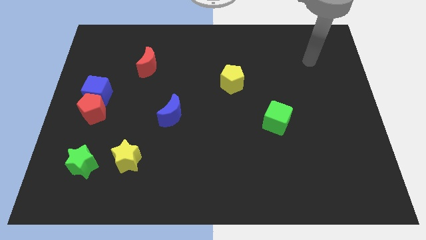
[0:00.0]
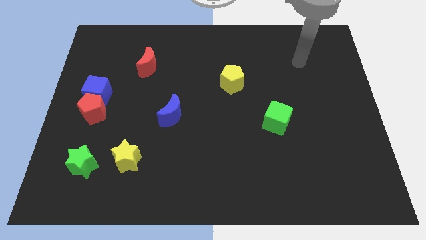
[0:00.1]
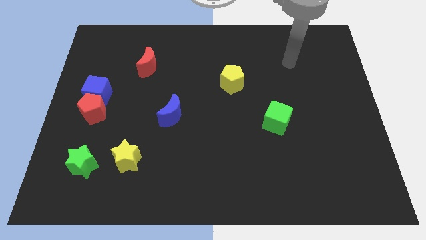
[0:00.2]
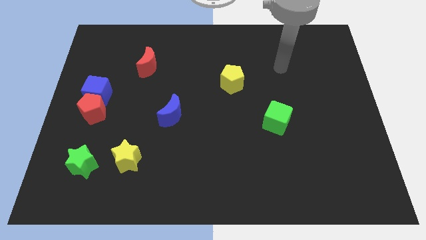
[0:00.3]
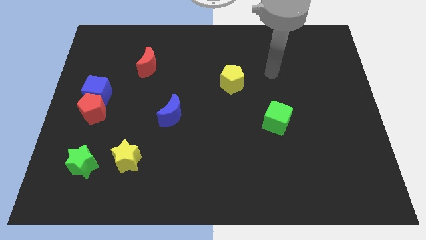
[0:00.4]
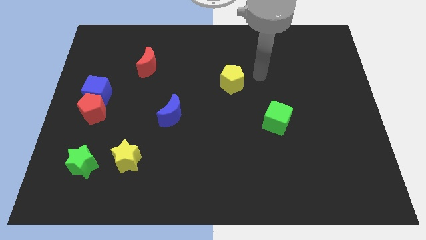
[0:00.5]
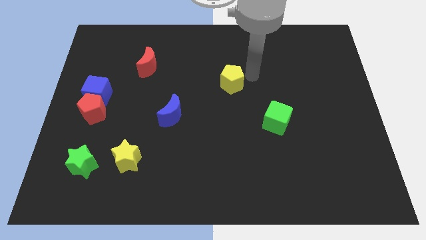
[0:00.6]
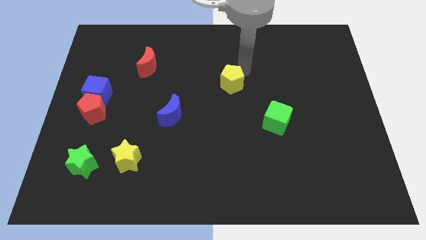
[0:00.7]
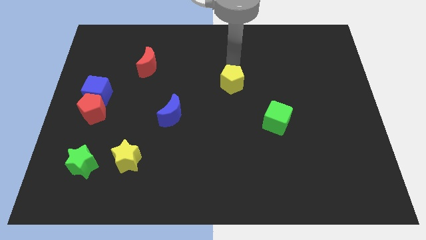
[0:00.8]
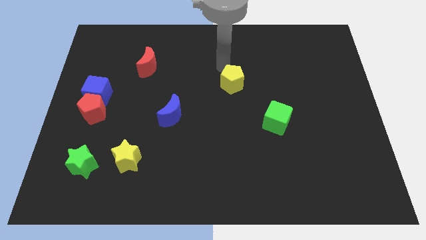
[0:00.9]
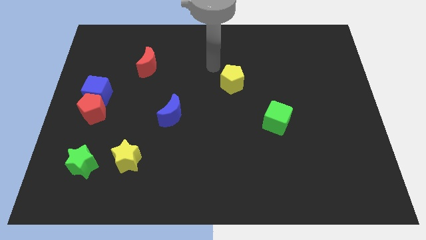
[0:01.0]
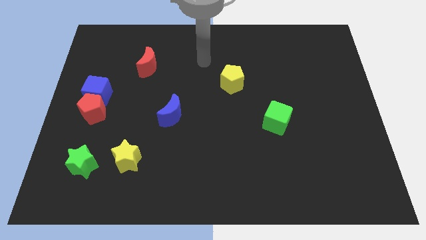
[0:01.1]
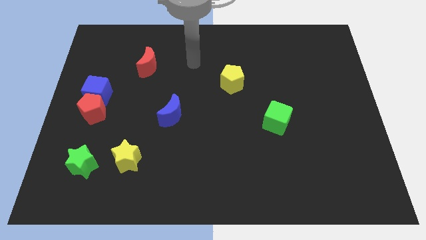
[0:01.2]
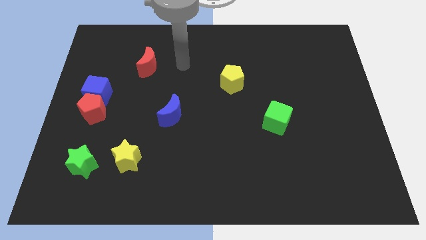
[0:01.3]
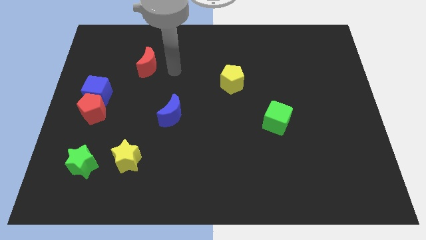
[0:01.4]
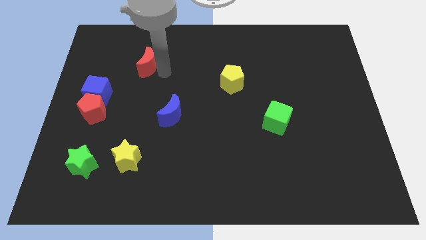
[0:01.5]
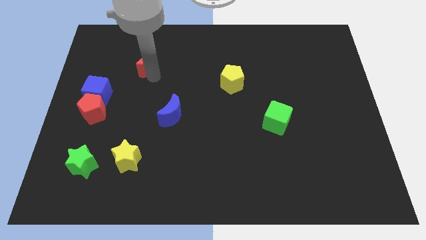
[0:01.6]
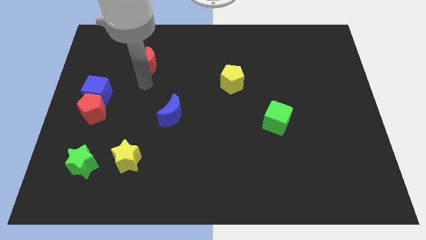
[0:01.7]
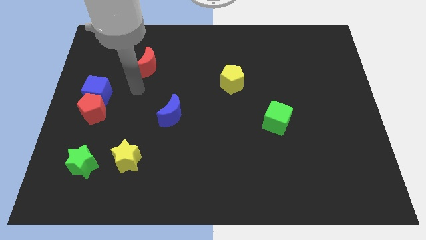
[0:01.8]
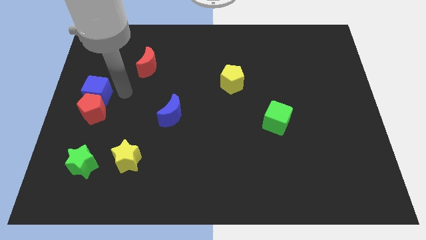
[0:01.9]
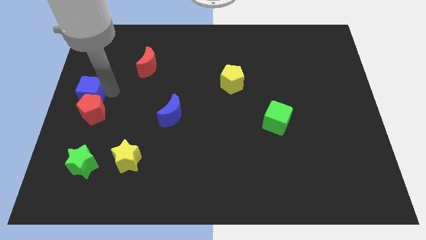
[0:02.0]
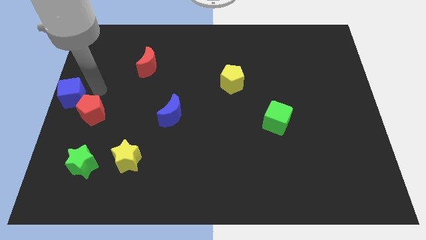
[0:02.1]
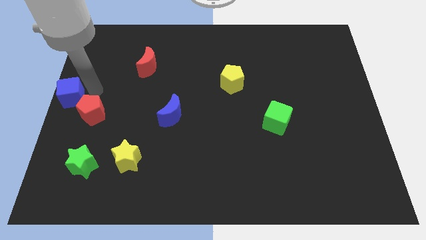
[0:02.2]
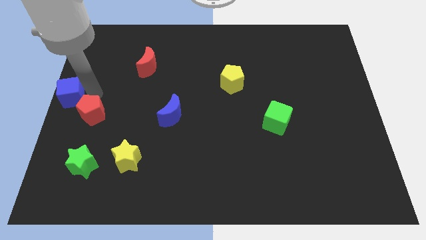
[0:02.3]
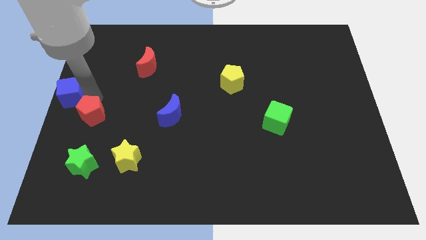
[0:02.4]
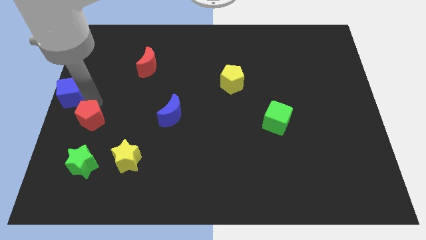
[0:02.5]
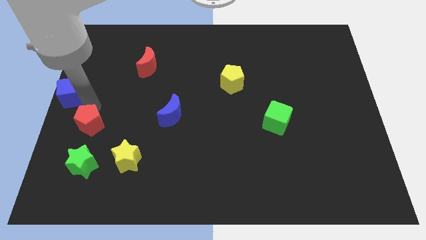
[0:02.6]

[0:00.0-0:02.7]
separate the red pentagon from the blue cube

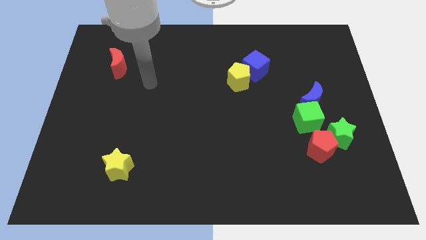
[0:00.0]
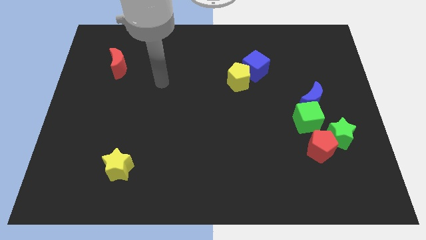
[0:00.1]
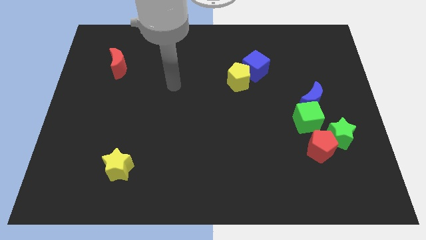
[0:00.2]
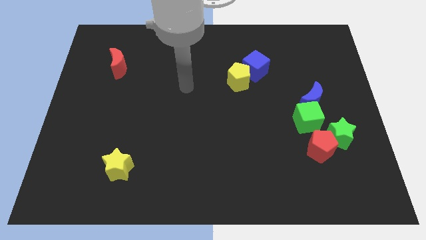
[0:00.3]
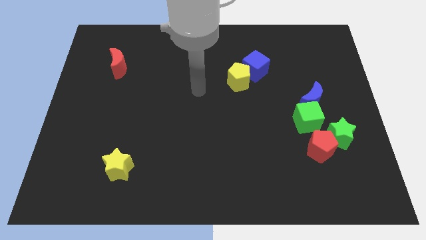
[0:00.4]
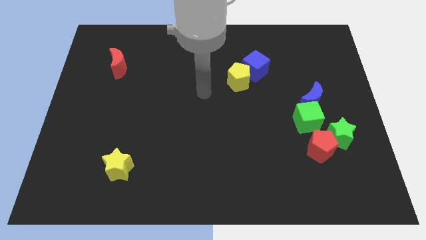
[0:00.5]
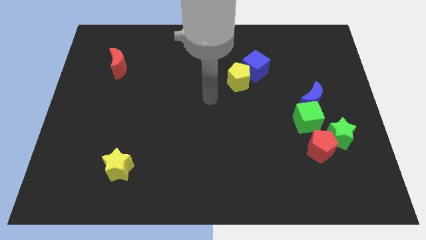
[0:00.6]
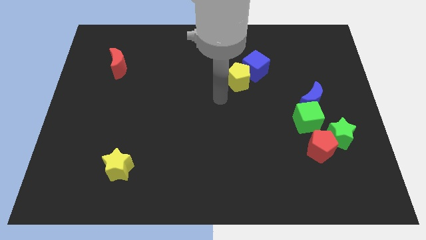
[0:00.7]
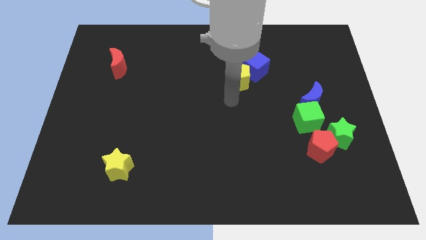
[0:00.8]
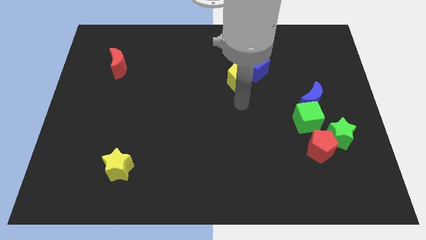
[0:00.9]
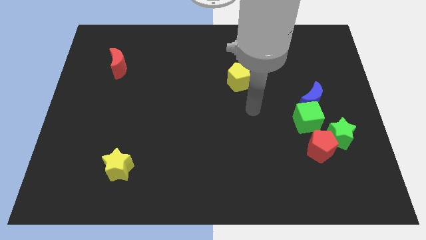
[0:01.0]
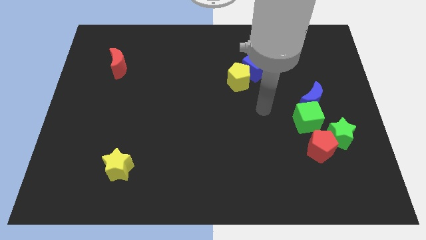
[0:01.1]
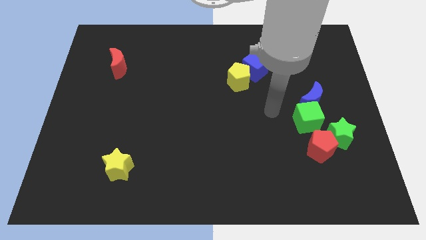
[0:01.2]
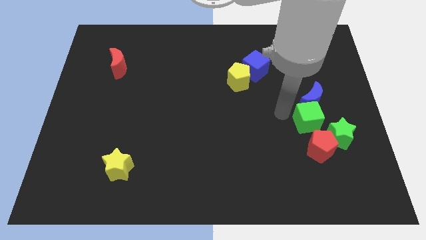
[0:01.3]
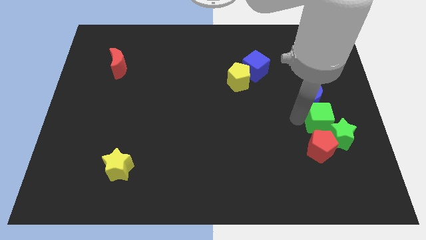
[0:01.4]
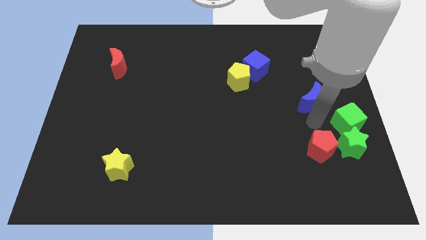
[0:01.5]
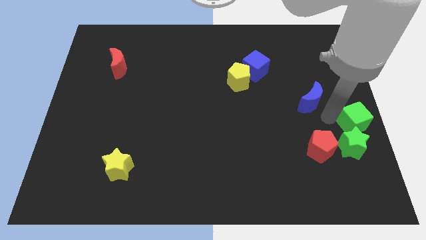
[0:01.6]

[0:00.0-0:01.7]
pull the blue moon apart from the green cube

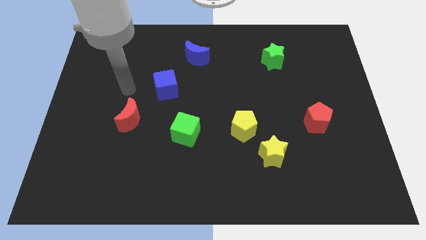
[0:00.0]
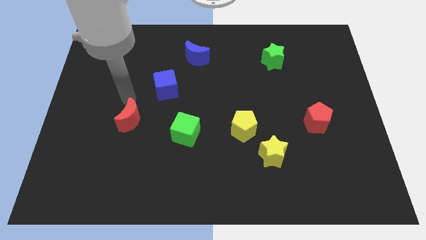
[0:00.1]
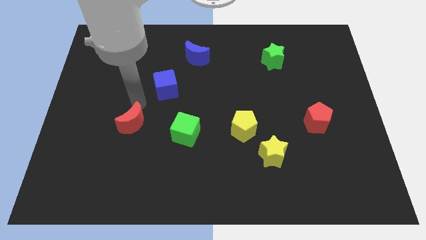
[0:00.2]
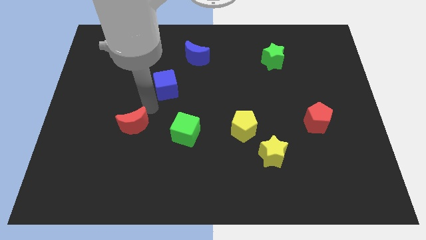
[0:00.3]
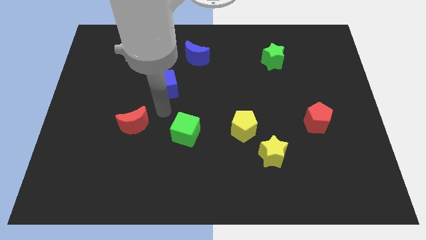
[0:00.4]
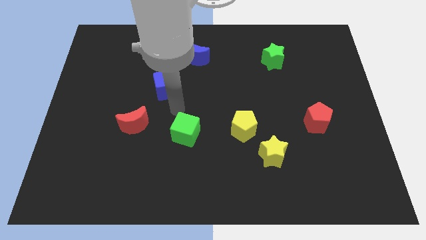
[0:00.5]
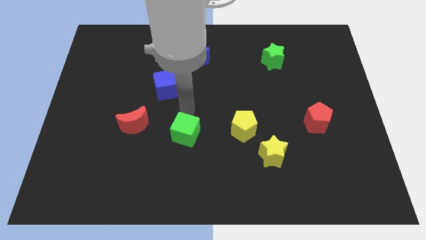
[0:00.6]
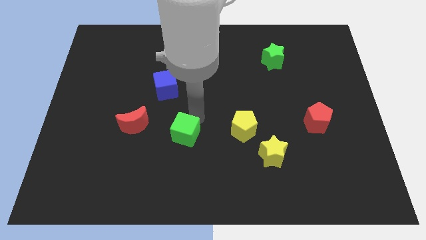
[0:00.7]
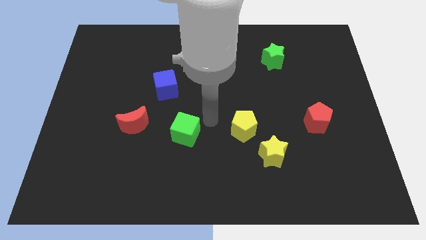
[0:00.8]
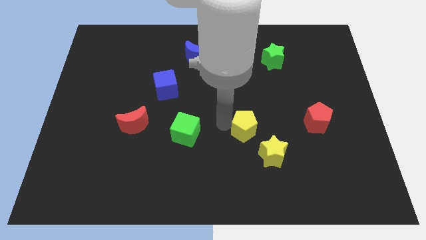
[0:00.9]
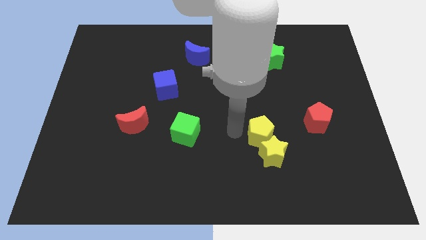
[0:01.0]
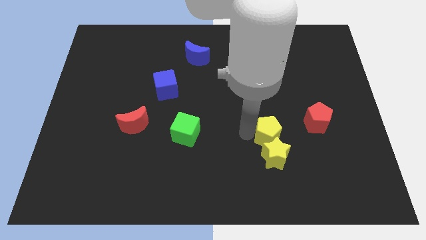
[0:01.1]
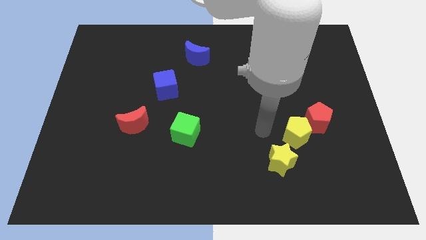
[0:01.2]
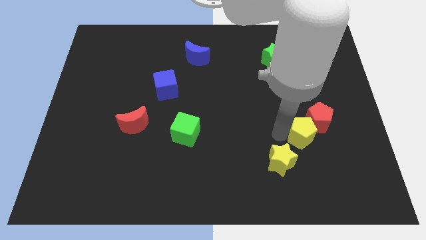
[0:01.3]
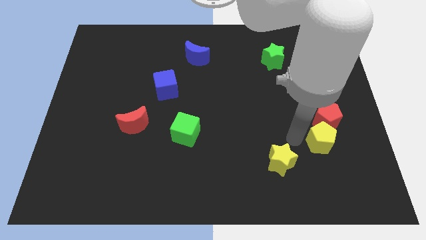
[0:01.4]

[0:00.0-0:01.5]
separate the yellow star from the yellow pentagon

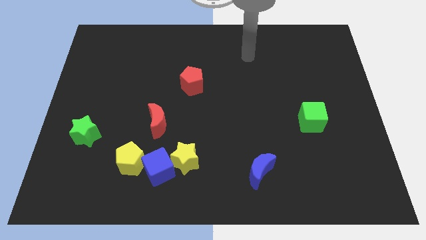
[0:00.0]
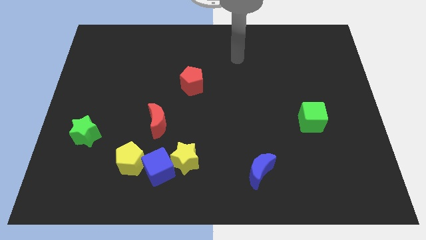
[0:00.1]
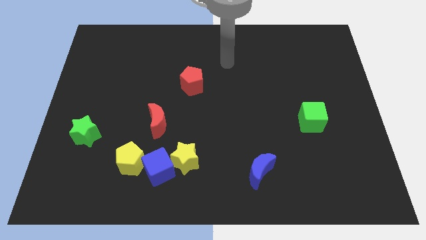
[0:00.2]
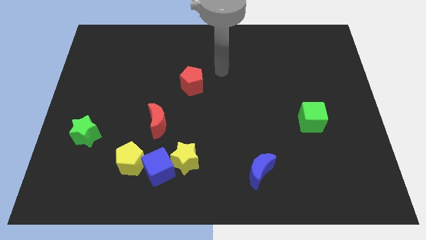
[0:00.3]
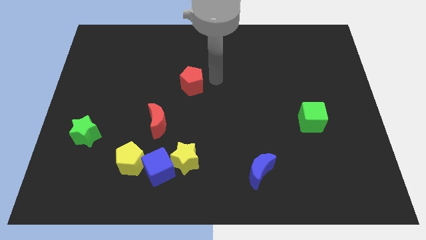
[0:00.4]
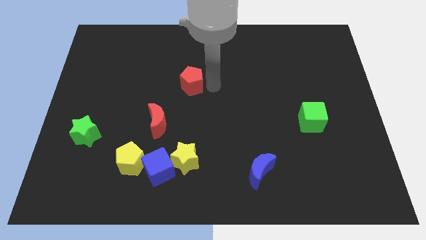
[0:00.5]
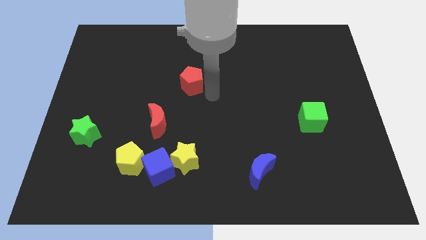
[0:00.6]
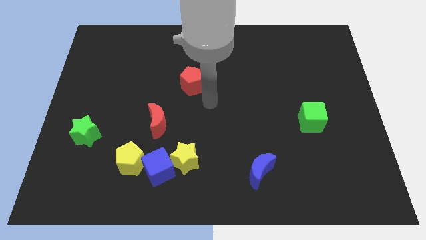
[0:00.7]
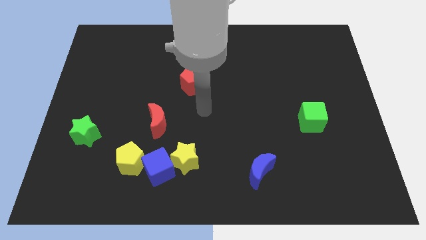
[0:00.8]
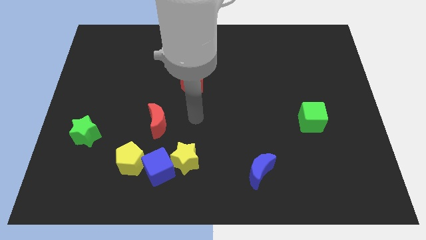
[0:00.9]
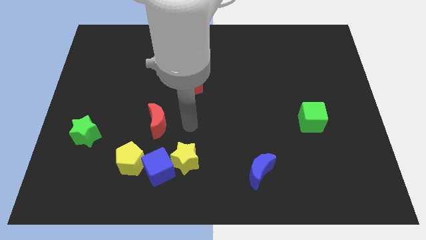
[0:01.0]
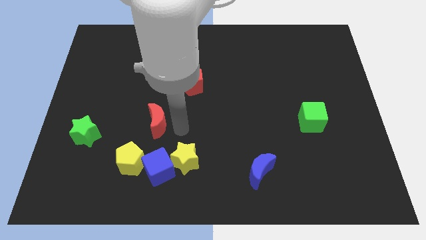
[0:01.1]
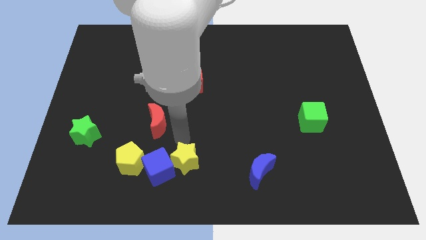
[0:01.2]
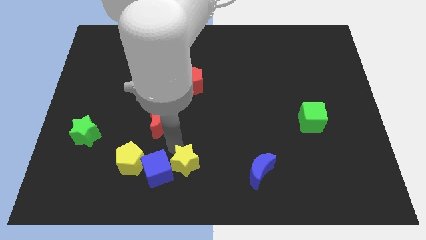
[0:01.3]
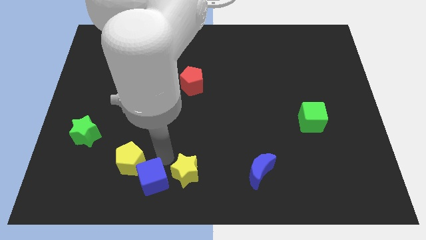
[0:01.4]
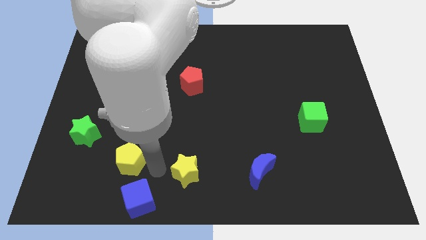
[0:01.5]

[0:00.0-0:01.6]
move the yellow star away from the blue cube

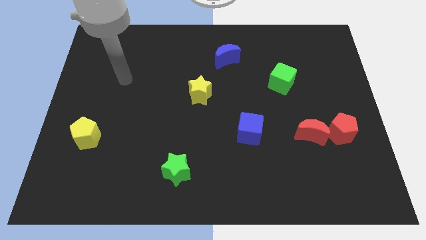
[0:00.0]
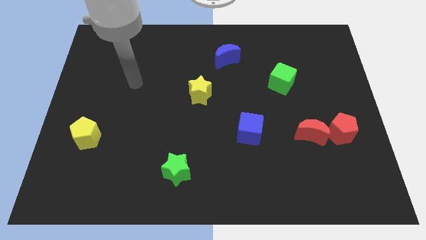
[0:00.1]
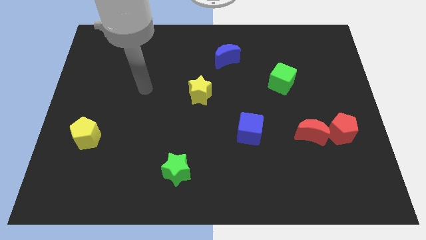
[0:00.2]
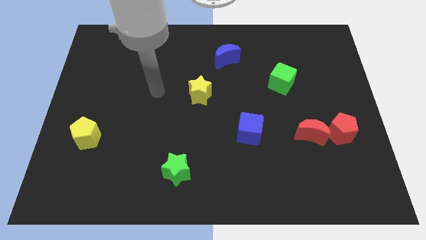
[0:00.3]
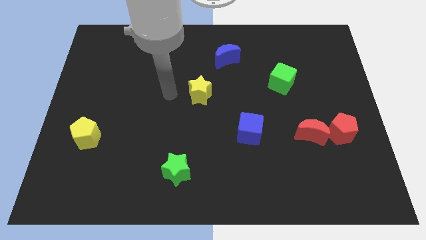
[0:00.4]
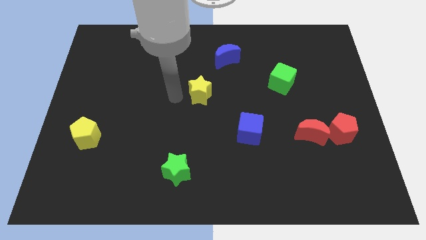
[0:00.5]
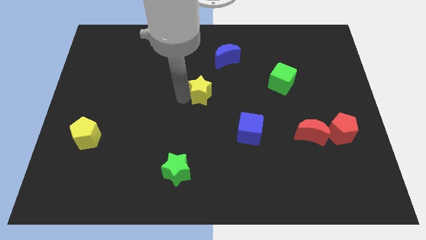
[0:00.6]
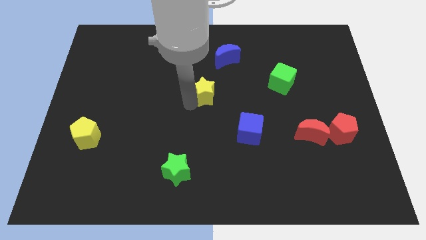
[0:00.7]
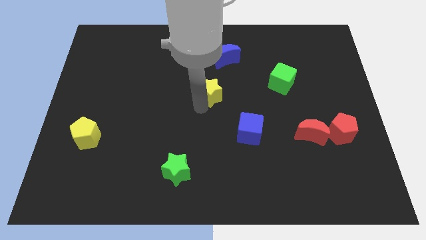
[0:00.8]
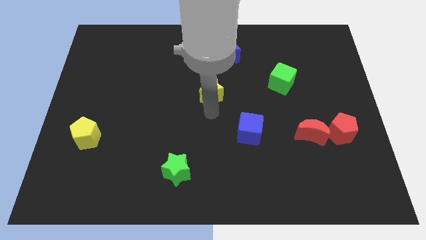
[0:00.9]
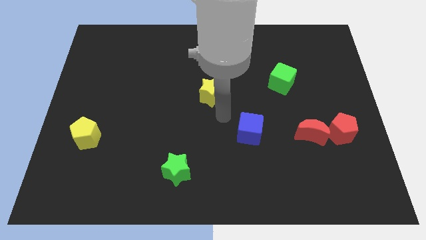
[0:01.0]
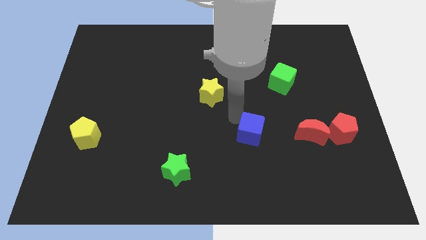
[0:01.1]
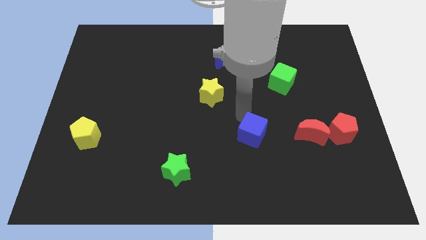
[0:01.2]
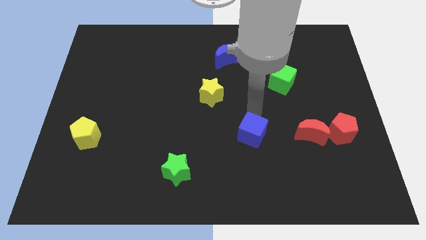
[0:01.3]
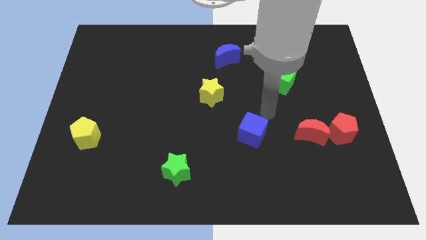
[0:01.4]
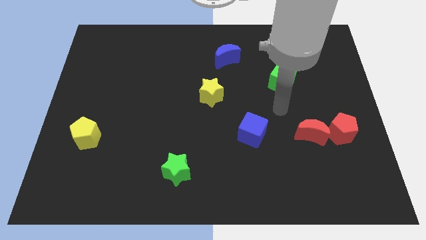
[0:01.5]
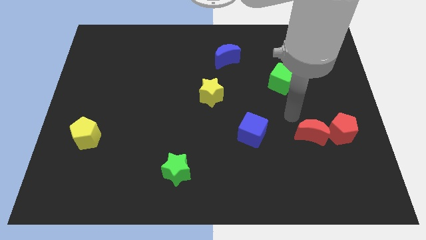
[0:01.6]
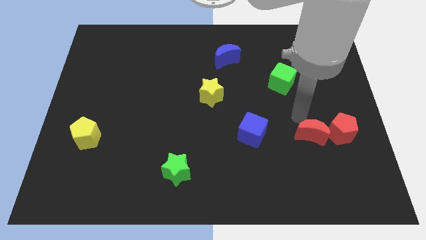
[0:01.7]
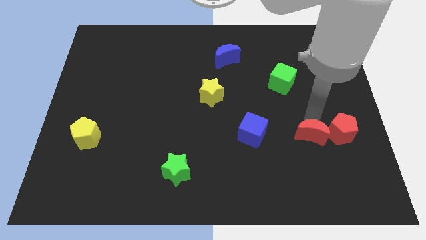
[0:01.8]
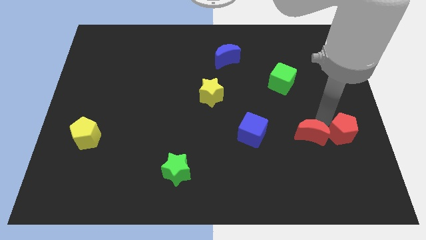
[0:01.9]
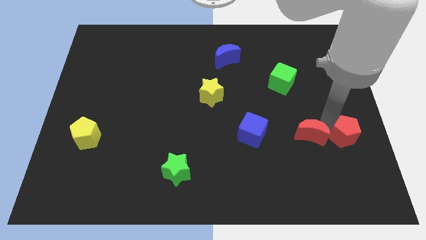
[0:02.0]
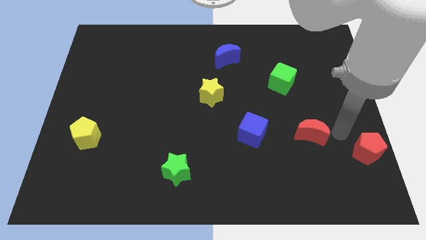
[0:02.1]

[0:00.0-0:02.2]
pull the red moon apart from the red pentagon
